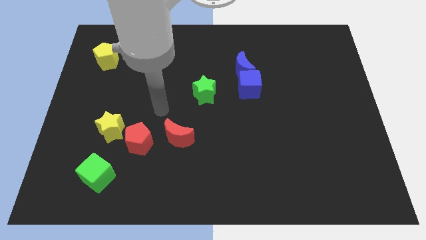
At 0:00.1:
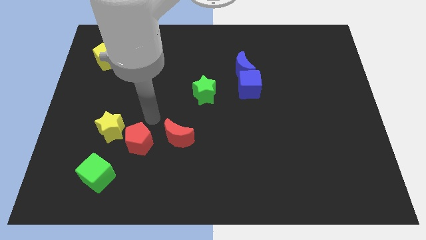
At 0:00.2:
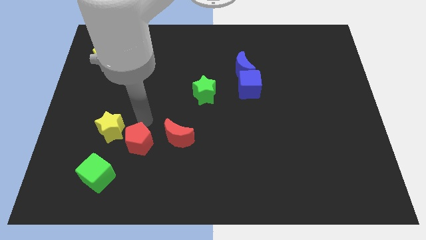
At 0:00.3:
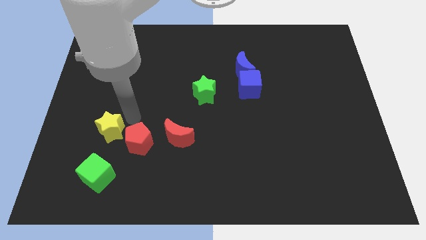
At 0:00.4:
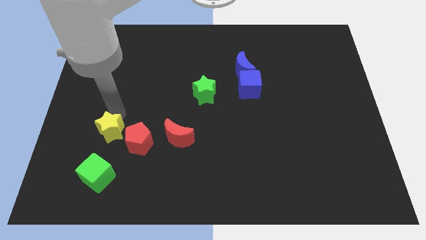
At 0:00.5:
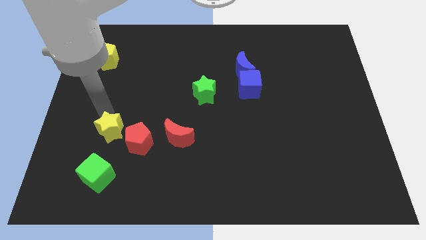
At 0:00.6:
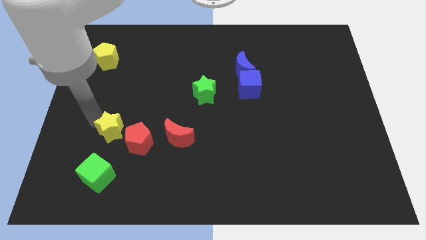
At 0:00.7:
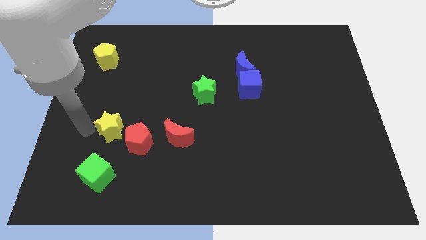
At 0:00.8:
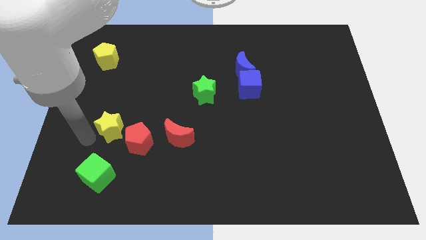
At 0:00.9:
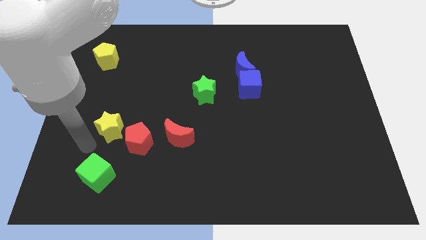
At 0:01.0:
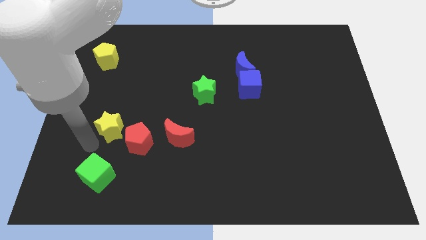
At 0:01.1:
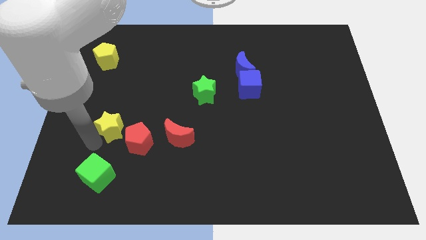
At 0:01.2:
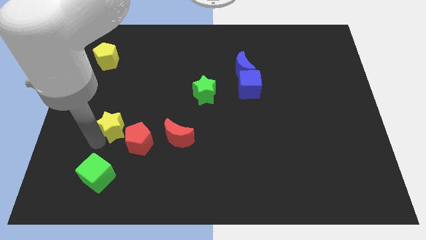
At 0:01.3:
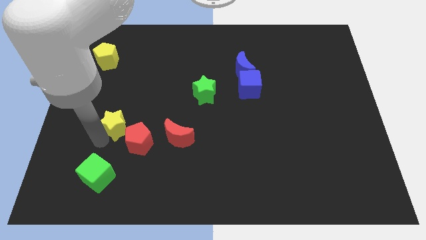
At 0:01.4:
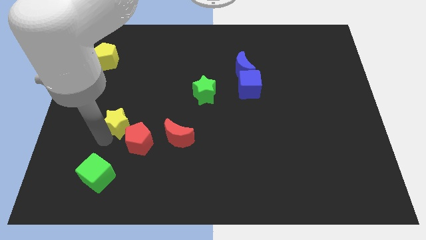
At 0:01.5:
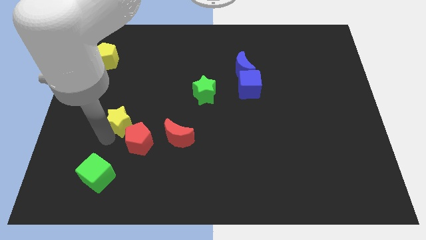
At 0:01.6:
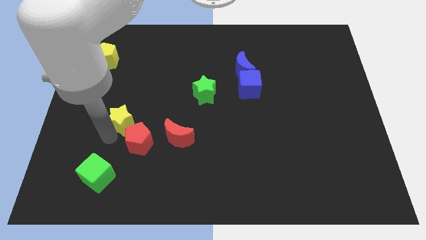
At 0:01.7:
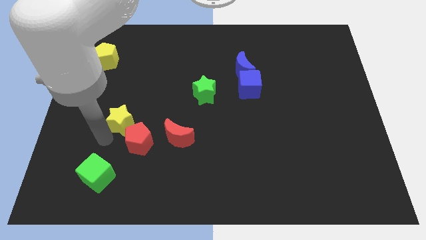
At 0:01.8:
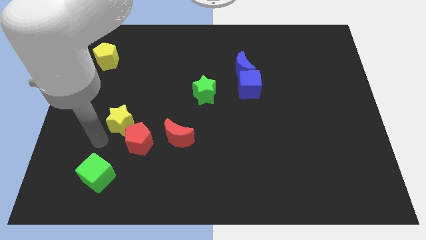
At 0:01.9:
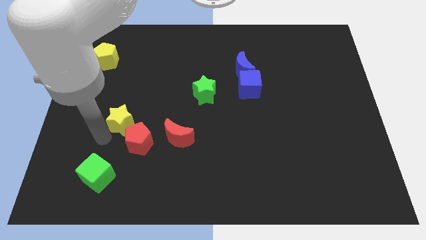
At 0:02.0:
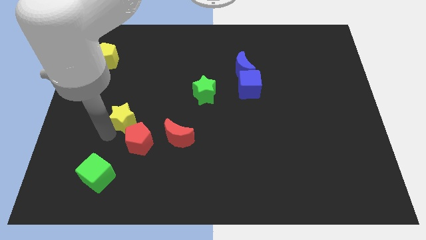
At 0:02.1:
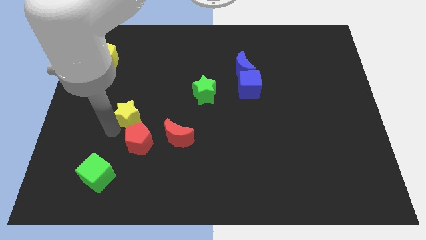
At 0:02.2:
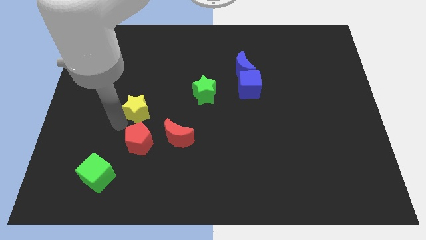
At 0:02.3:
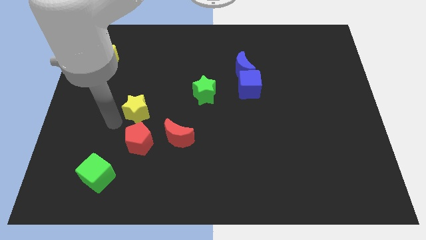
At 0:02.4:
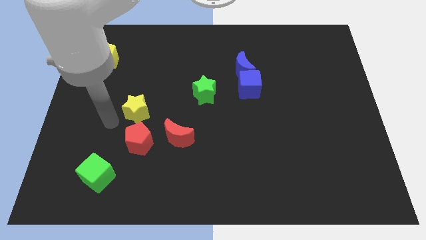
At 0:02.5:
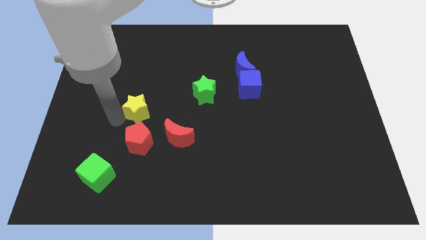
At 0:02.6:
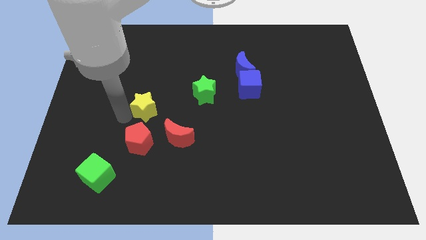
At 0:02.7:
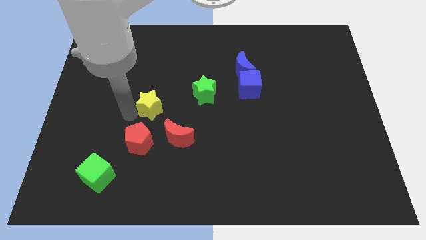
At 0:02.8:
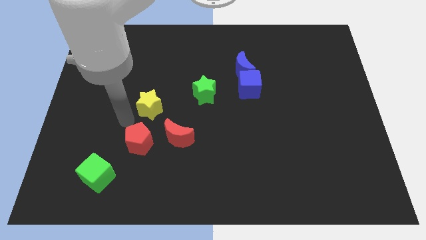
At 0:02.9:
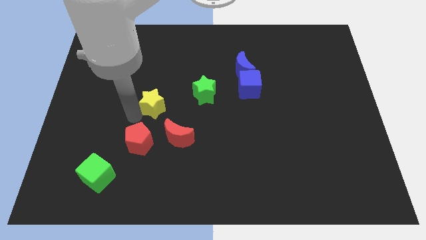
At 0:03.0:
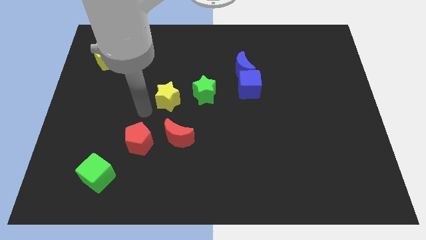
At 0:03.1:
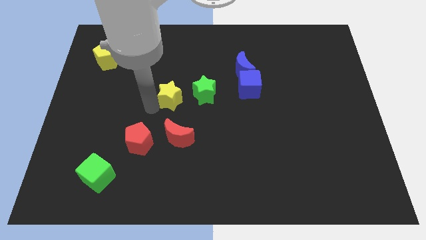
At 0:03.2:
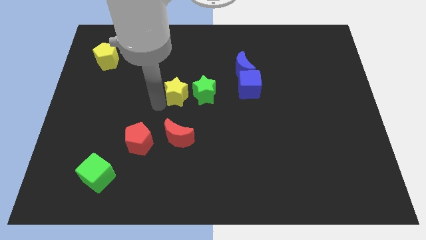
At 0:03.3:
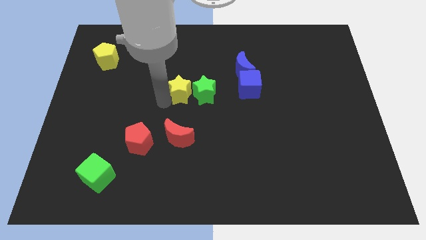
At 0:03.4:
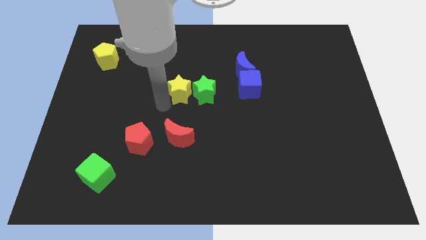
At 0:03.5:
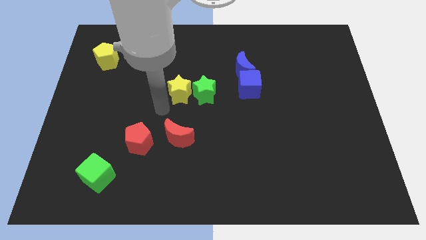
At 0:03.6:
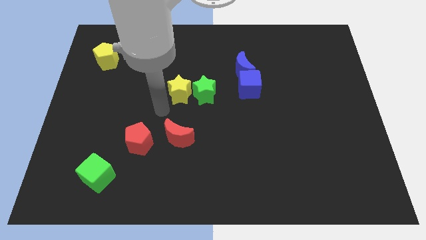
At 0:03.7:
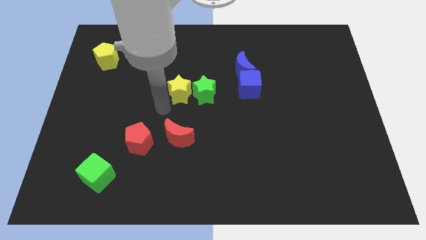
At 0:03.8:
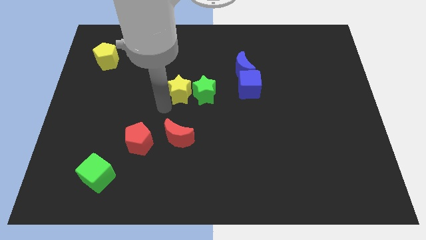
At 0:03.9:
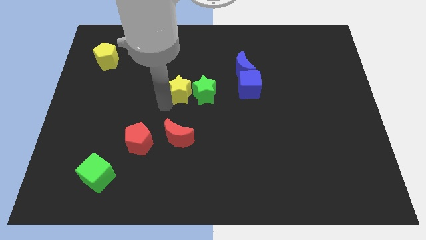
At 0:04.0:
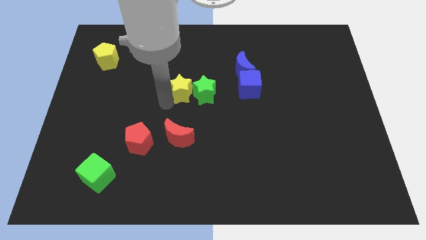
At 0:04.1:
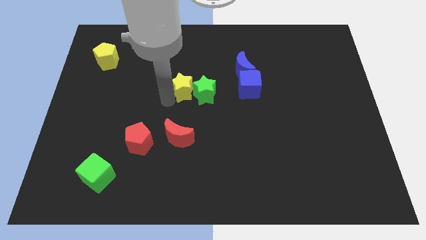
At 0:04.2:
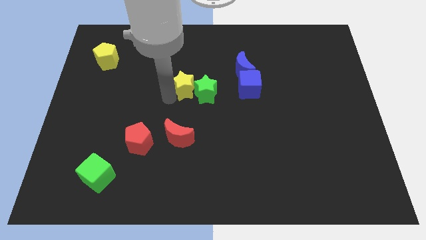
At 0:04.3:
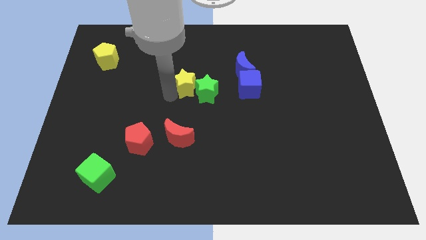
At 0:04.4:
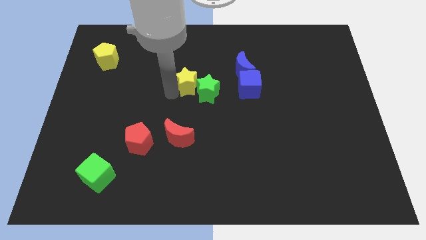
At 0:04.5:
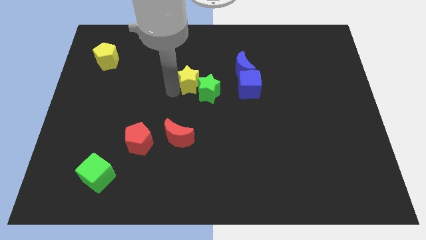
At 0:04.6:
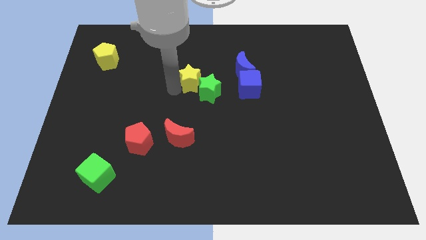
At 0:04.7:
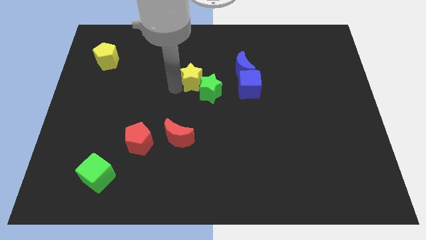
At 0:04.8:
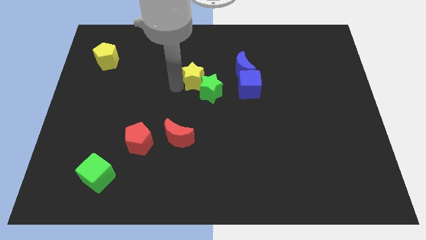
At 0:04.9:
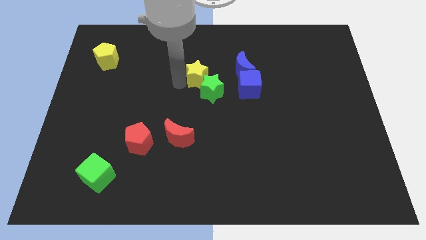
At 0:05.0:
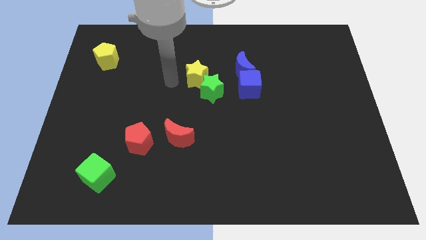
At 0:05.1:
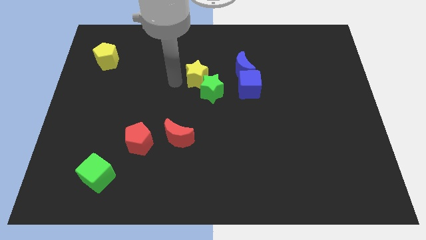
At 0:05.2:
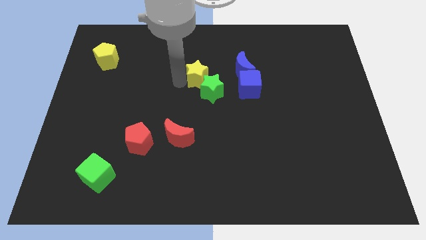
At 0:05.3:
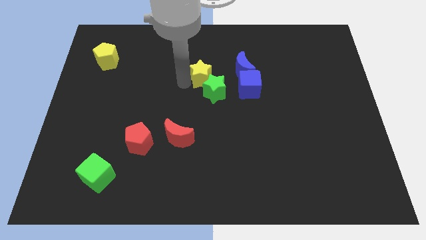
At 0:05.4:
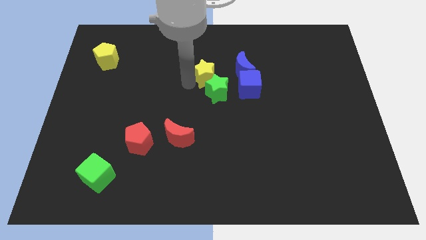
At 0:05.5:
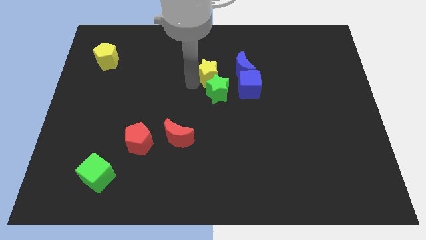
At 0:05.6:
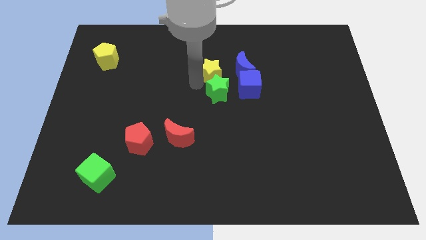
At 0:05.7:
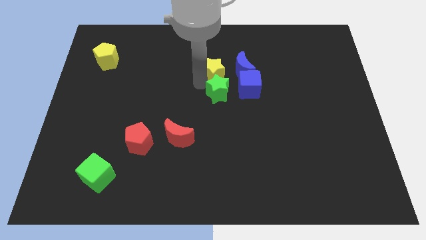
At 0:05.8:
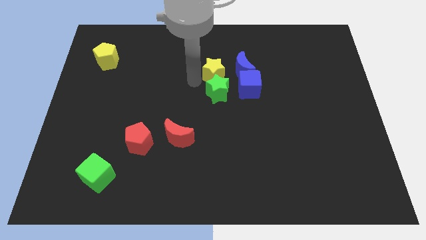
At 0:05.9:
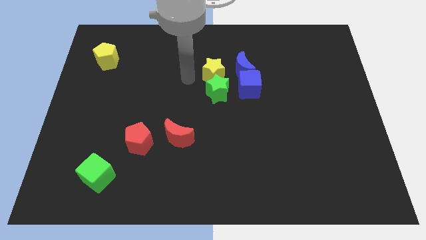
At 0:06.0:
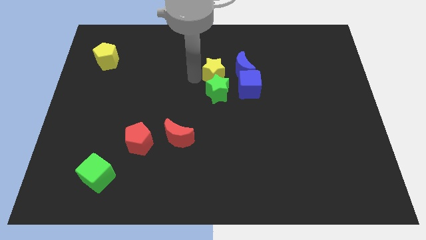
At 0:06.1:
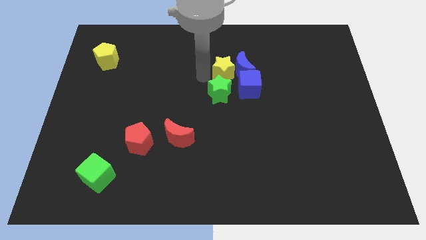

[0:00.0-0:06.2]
move the yellow star towards the blue moon

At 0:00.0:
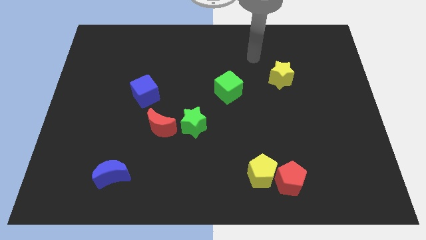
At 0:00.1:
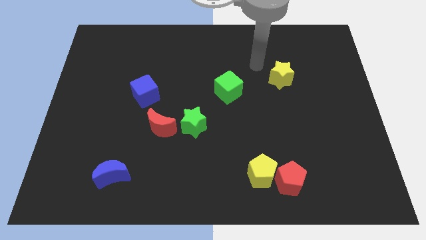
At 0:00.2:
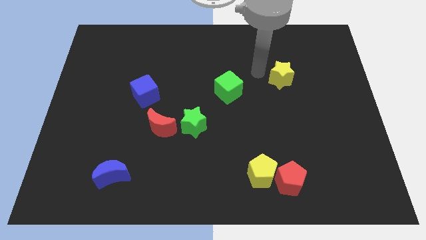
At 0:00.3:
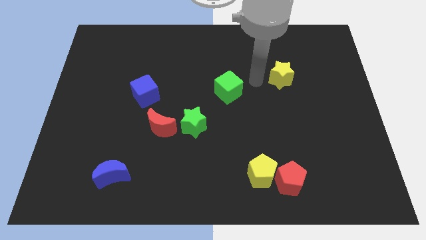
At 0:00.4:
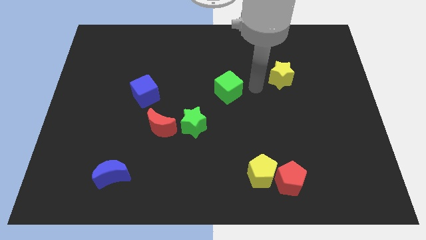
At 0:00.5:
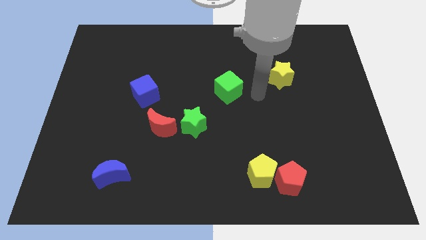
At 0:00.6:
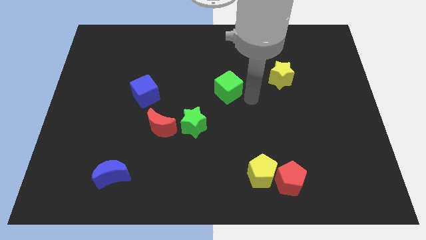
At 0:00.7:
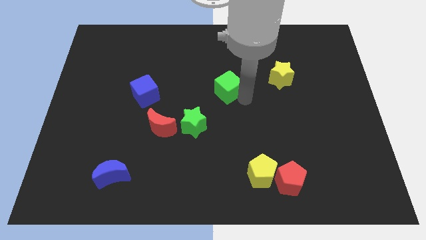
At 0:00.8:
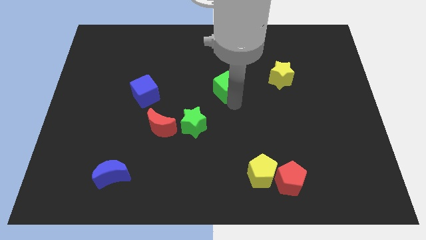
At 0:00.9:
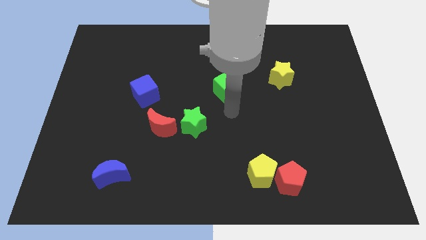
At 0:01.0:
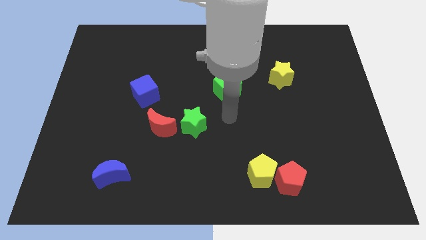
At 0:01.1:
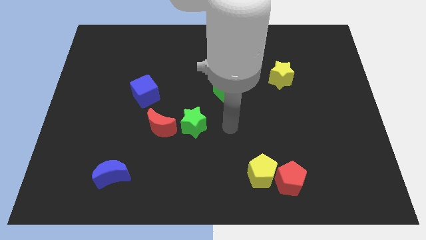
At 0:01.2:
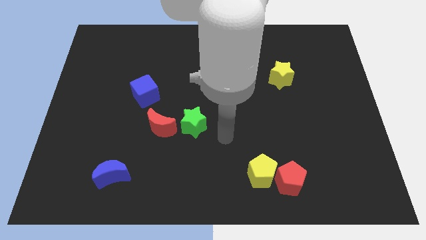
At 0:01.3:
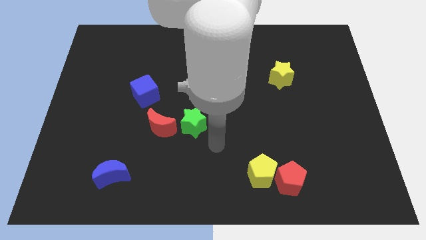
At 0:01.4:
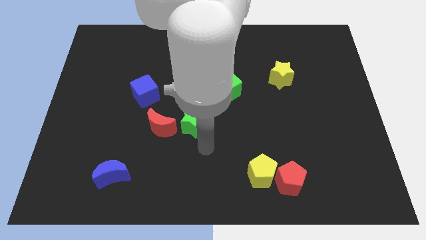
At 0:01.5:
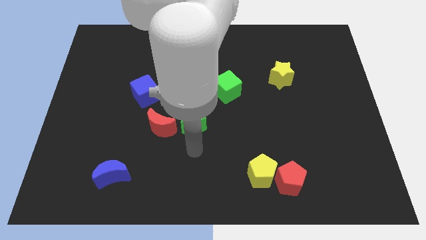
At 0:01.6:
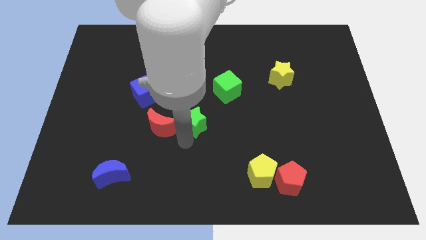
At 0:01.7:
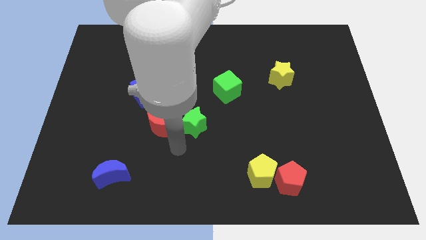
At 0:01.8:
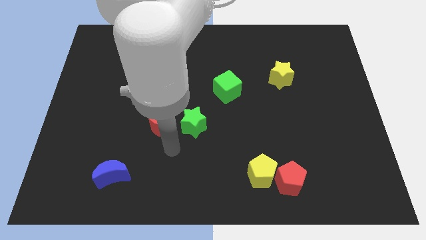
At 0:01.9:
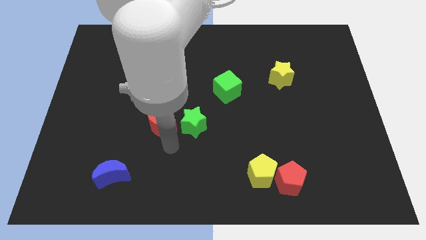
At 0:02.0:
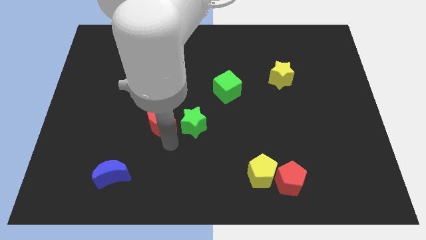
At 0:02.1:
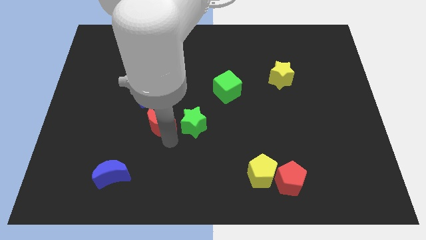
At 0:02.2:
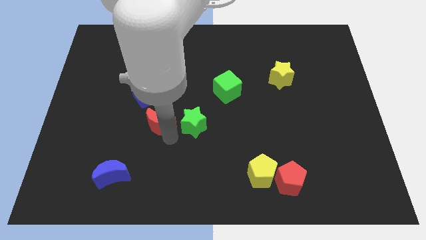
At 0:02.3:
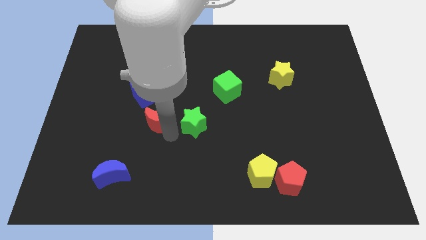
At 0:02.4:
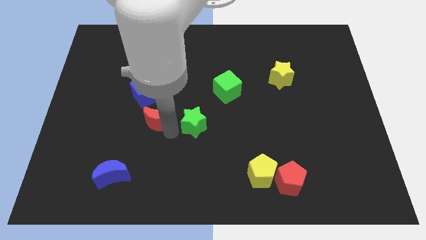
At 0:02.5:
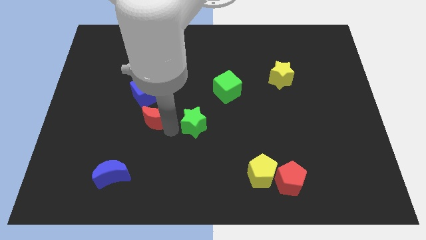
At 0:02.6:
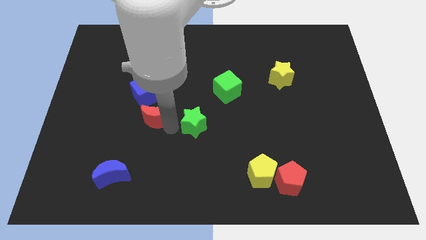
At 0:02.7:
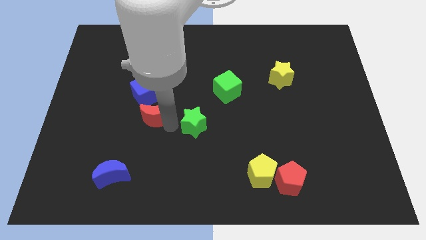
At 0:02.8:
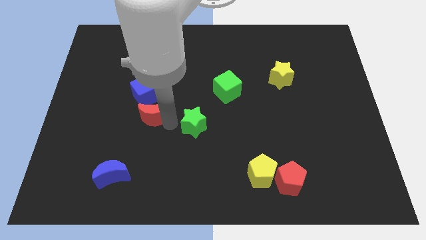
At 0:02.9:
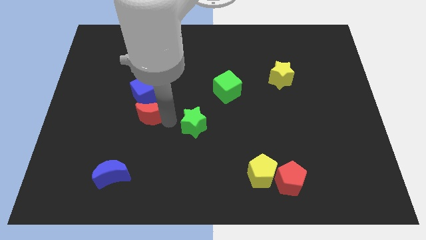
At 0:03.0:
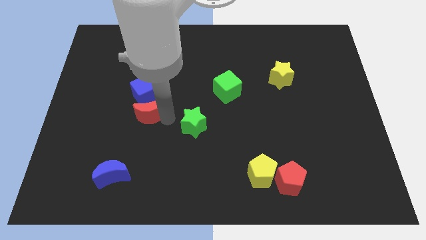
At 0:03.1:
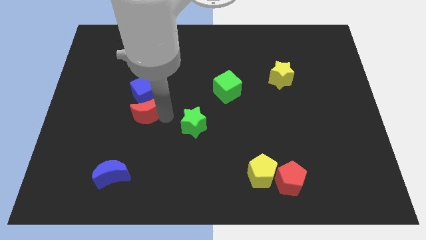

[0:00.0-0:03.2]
move the red moon next to the blue cube
